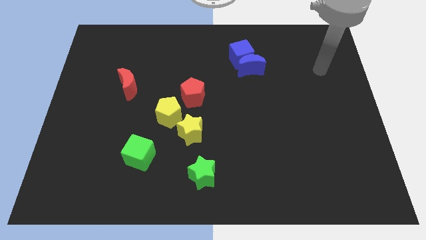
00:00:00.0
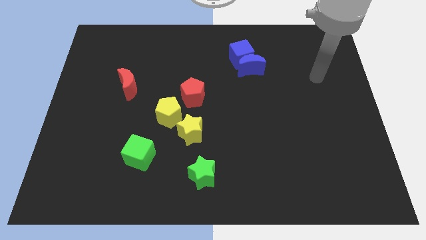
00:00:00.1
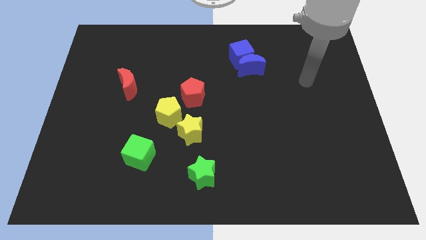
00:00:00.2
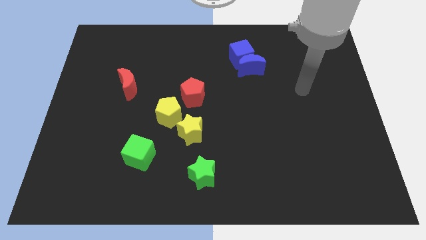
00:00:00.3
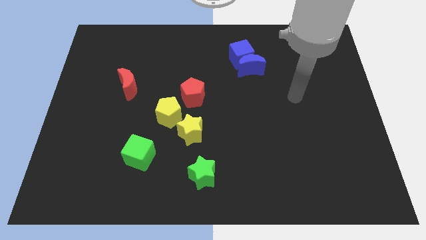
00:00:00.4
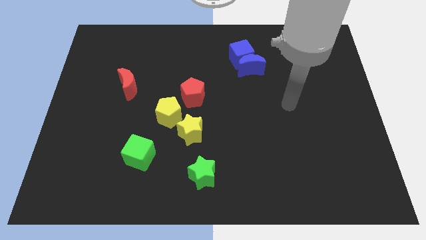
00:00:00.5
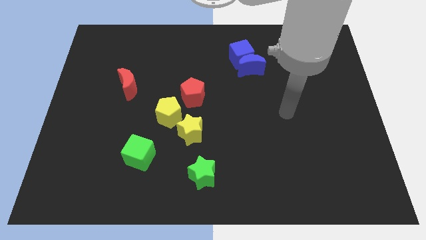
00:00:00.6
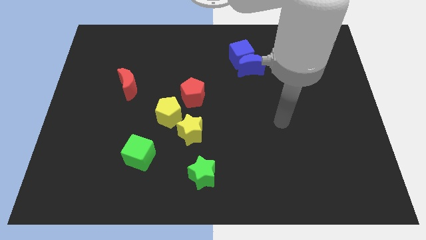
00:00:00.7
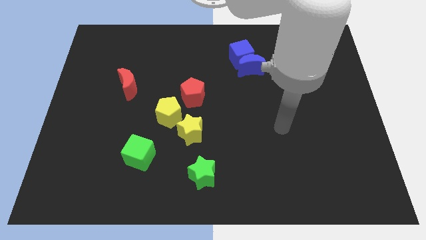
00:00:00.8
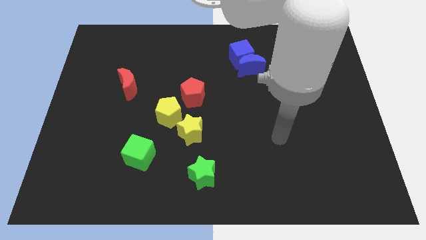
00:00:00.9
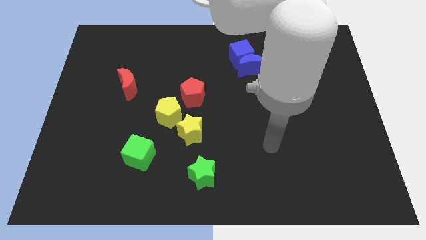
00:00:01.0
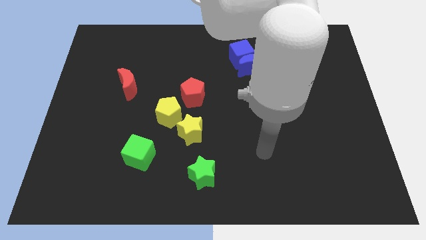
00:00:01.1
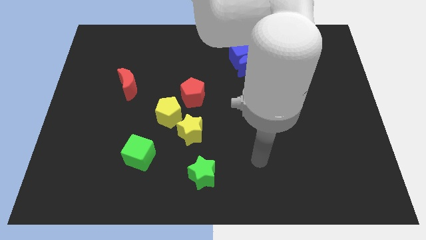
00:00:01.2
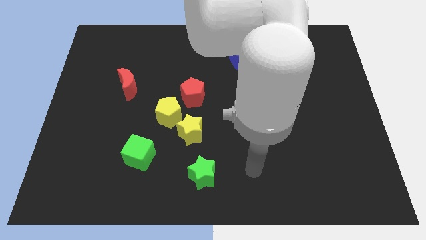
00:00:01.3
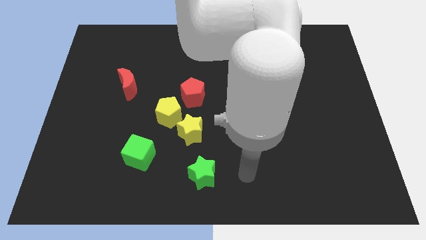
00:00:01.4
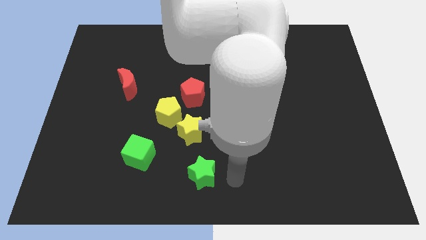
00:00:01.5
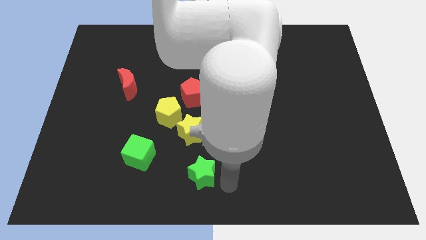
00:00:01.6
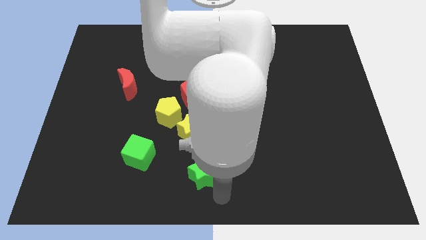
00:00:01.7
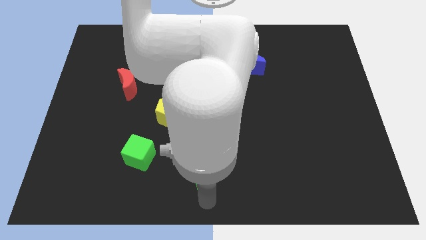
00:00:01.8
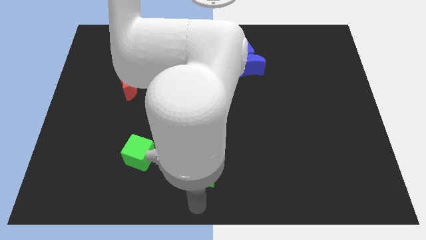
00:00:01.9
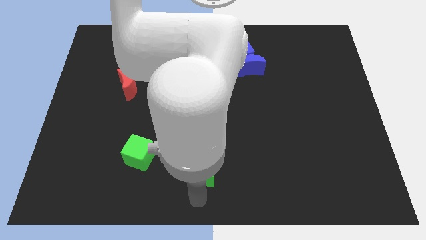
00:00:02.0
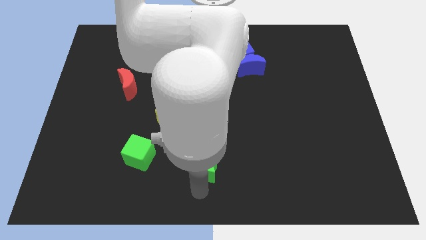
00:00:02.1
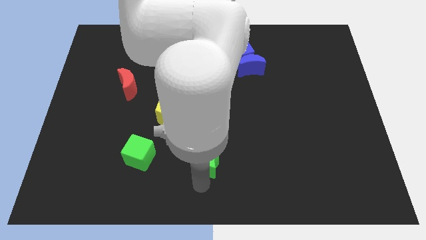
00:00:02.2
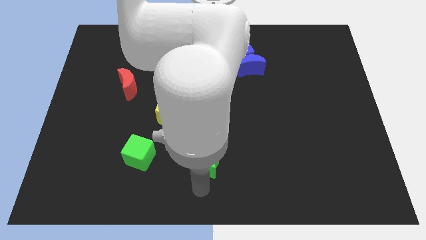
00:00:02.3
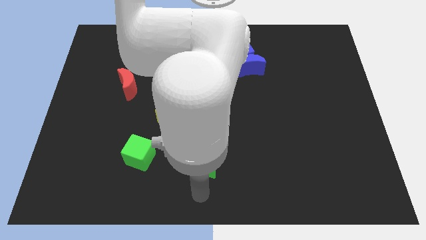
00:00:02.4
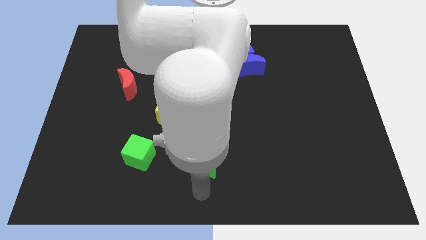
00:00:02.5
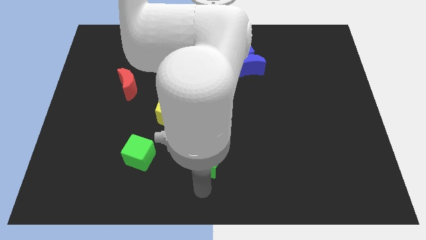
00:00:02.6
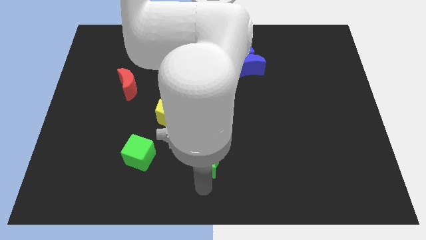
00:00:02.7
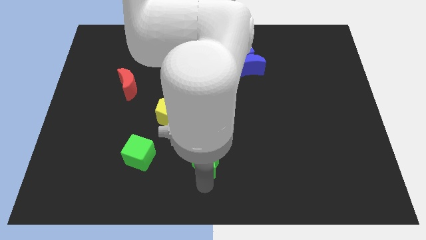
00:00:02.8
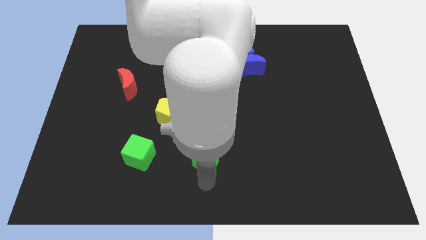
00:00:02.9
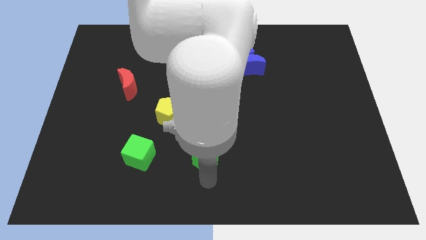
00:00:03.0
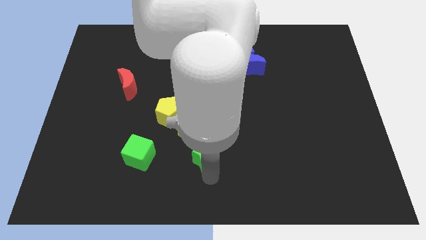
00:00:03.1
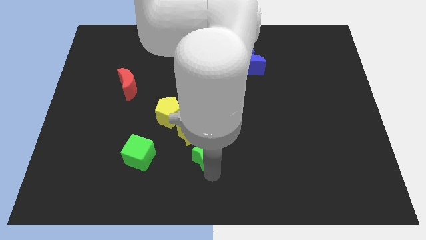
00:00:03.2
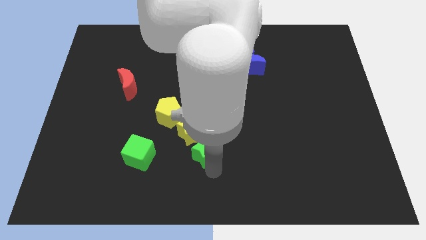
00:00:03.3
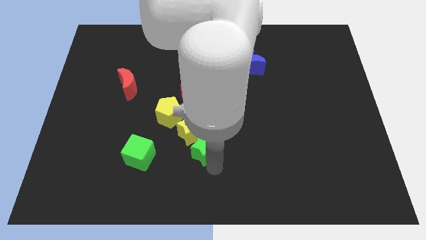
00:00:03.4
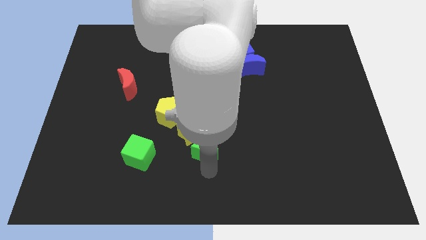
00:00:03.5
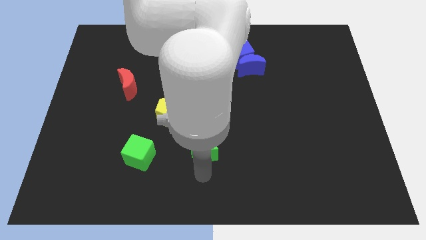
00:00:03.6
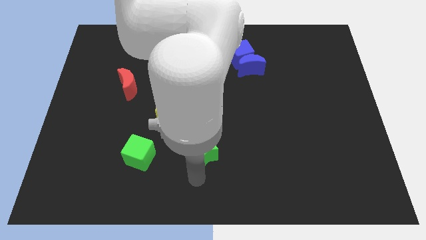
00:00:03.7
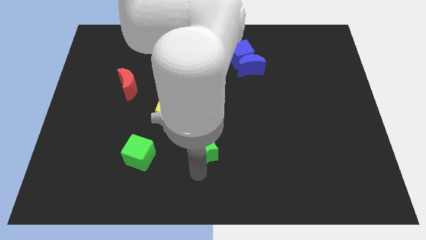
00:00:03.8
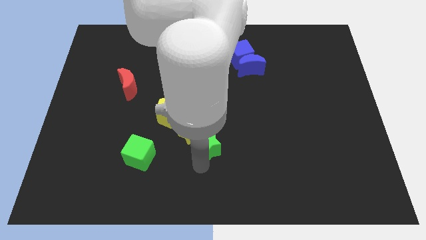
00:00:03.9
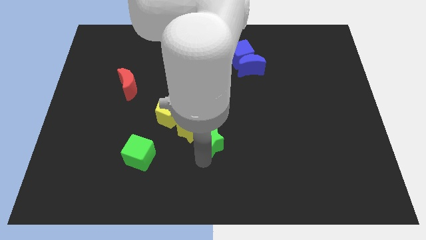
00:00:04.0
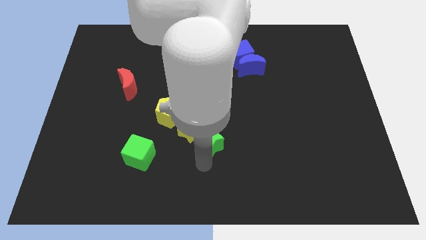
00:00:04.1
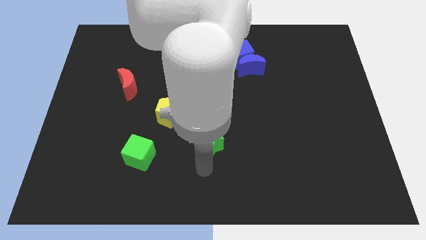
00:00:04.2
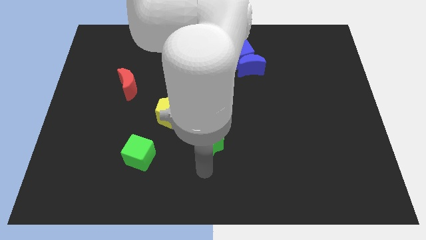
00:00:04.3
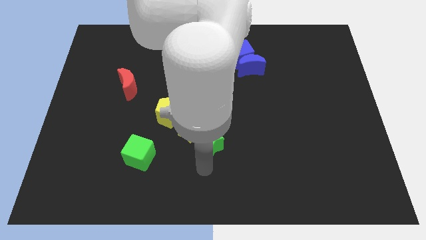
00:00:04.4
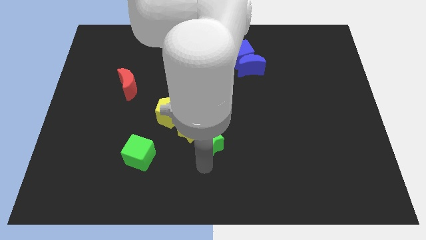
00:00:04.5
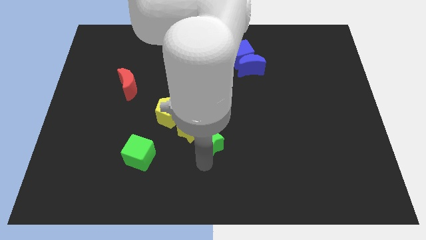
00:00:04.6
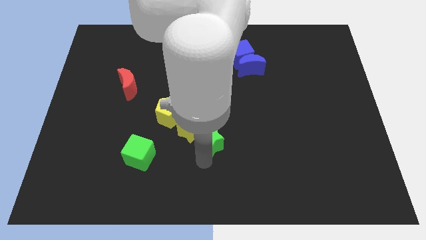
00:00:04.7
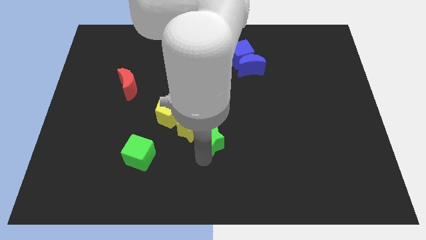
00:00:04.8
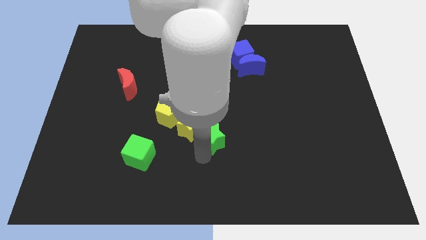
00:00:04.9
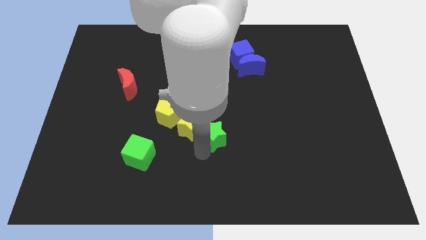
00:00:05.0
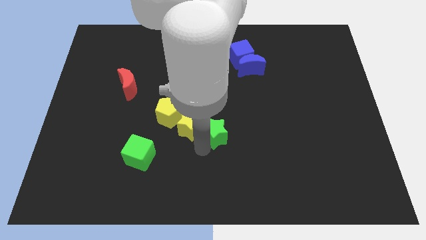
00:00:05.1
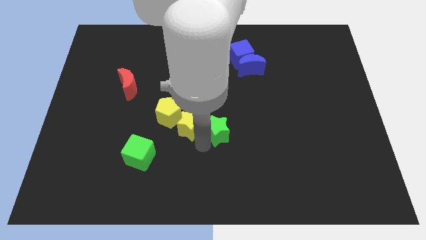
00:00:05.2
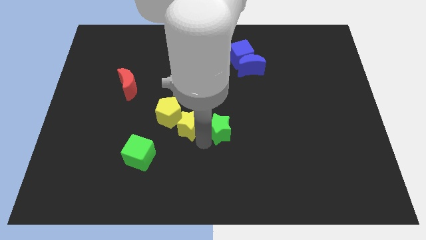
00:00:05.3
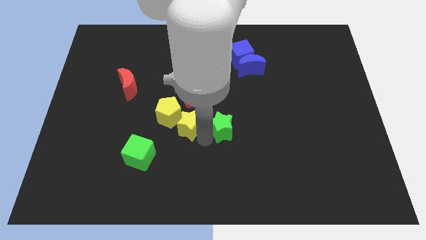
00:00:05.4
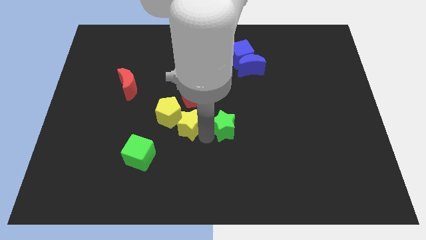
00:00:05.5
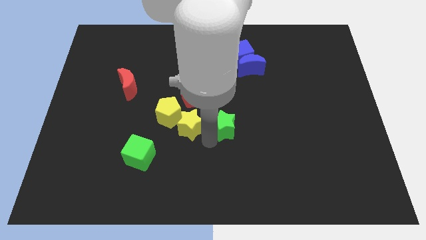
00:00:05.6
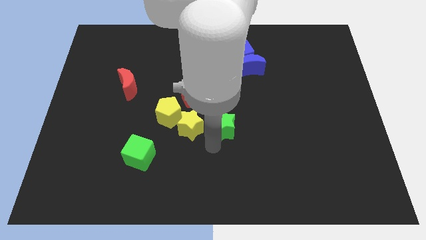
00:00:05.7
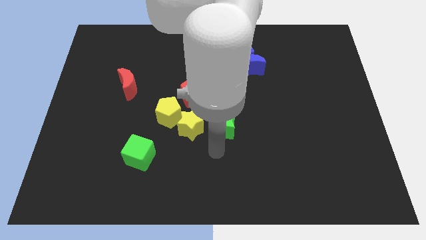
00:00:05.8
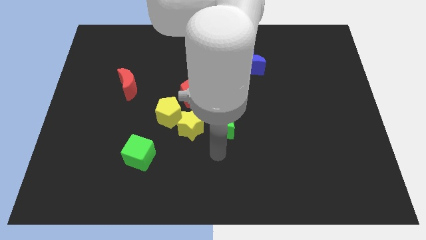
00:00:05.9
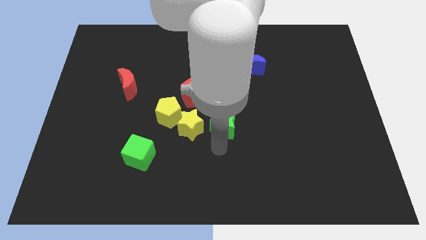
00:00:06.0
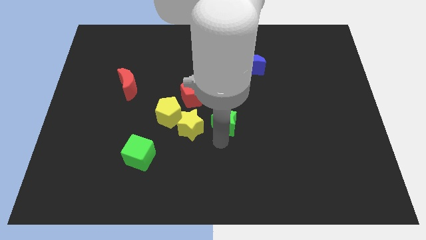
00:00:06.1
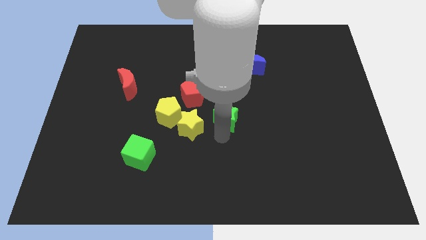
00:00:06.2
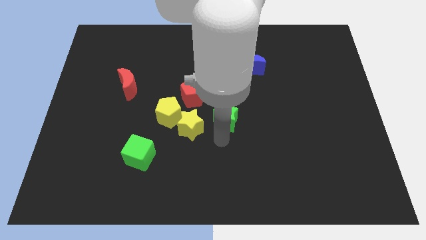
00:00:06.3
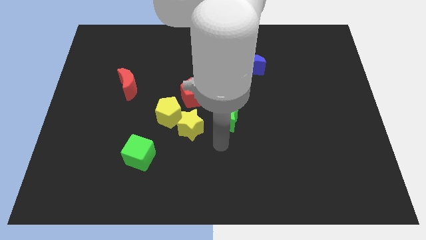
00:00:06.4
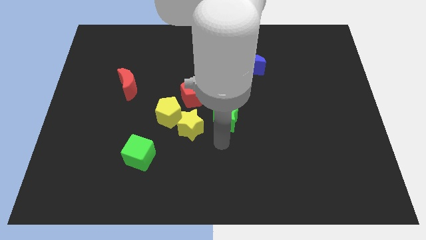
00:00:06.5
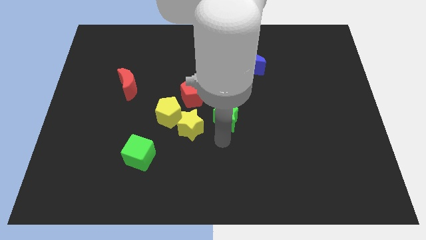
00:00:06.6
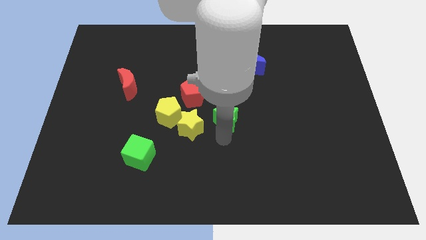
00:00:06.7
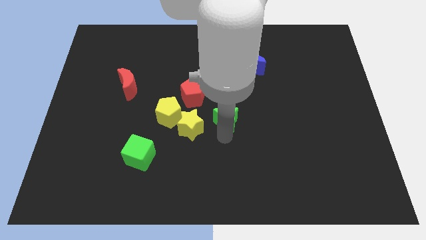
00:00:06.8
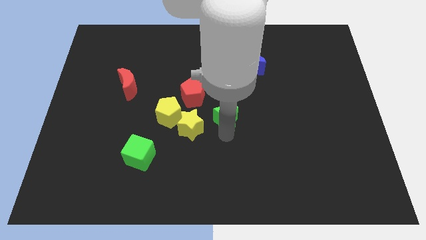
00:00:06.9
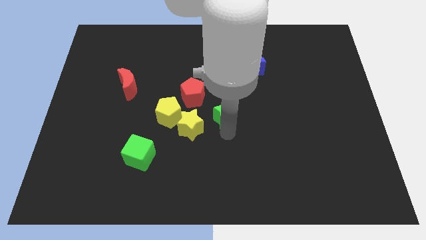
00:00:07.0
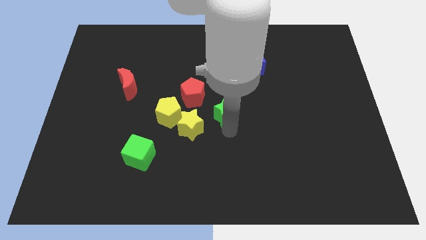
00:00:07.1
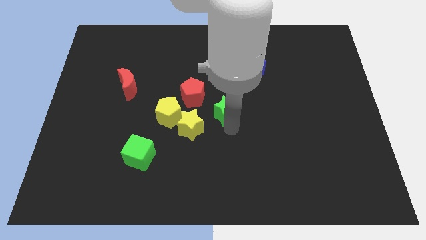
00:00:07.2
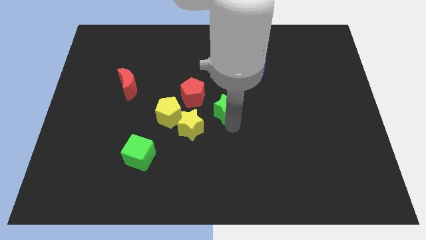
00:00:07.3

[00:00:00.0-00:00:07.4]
move the green star right of the red pentagon
